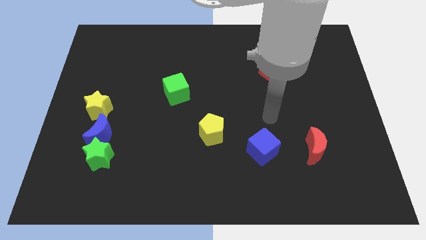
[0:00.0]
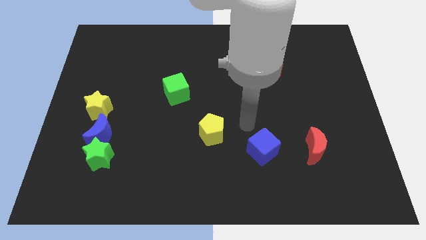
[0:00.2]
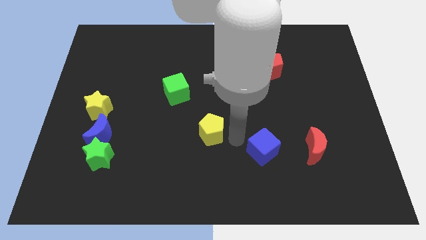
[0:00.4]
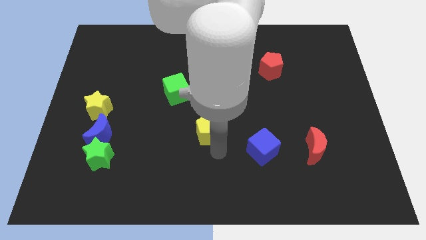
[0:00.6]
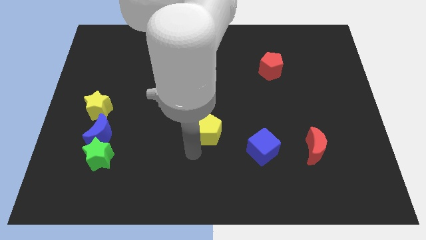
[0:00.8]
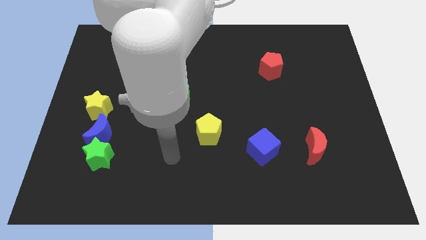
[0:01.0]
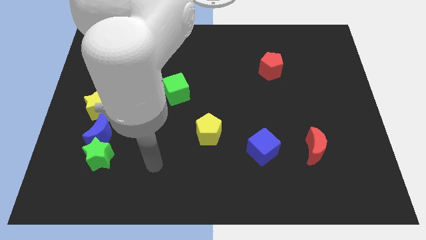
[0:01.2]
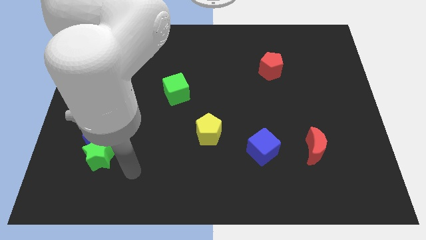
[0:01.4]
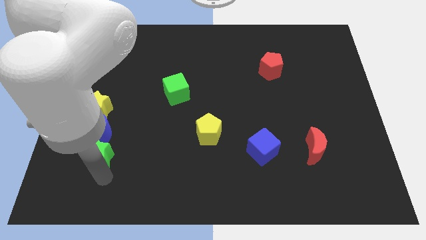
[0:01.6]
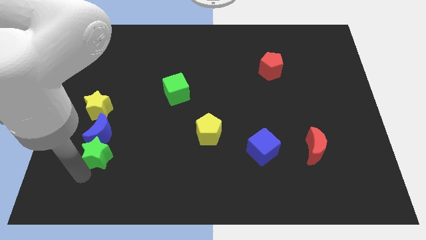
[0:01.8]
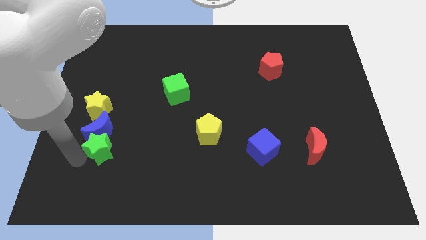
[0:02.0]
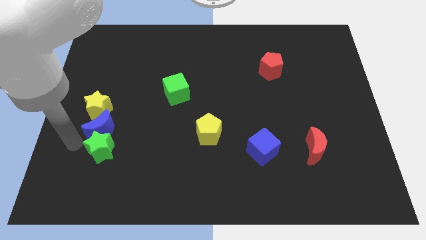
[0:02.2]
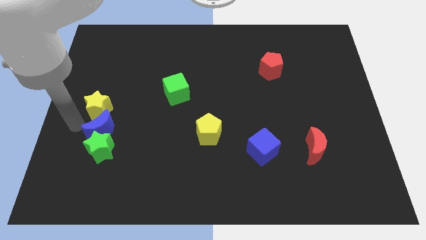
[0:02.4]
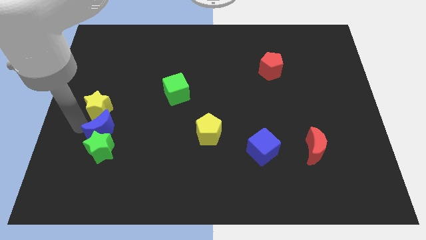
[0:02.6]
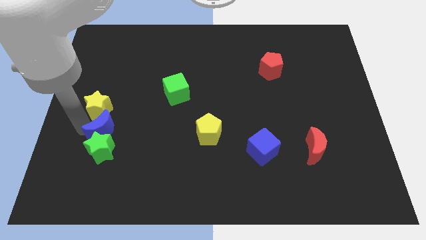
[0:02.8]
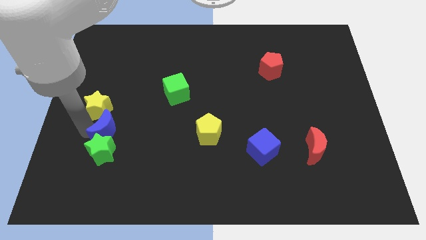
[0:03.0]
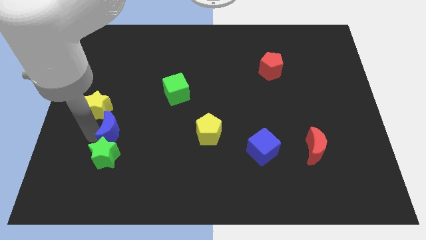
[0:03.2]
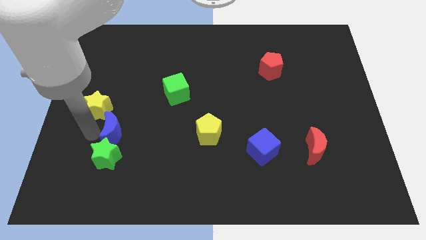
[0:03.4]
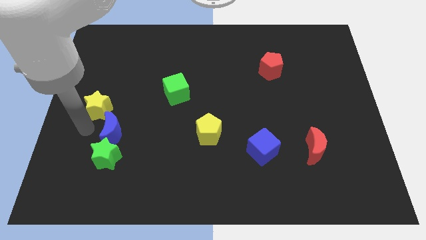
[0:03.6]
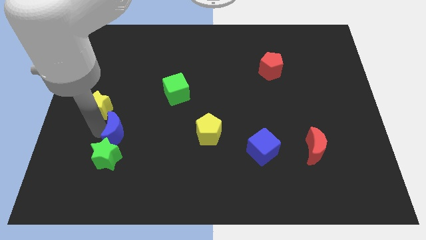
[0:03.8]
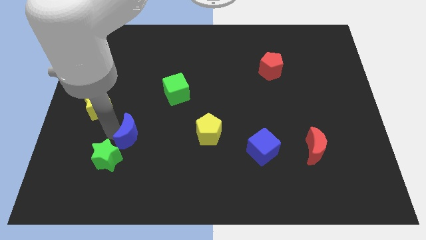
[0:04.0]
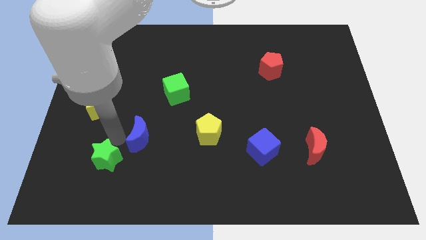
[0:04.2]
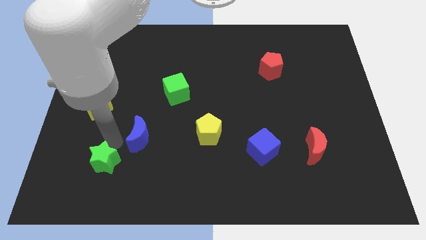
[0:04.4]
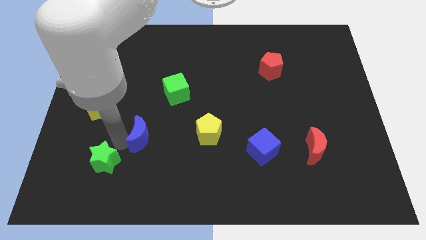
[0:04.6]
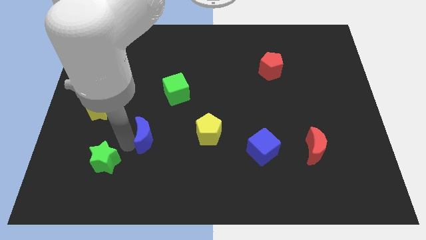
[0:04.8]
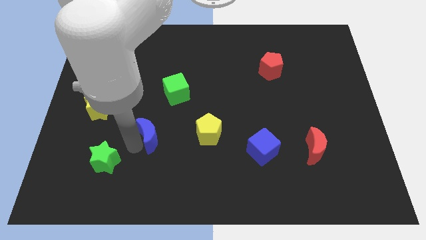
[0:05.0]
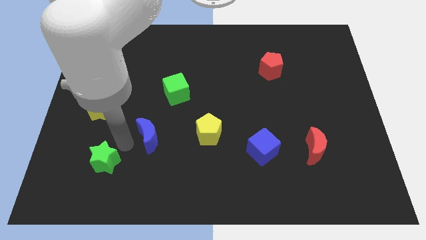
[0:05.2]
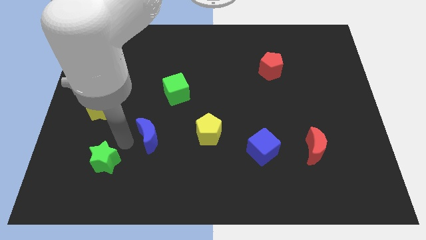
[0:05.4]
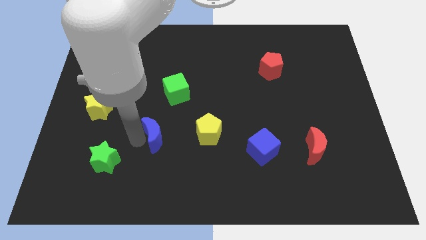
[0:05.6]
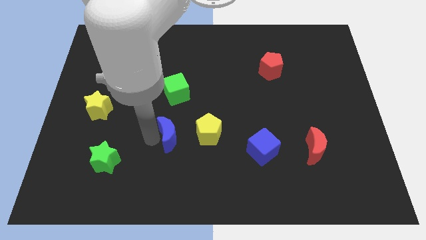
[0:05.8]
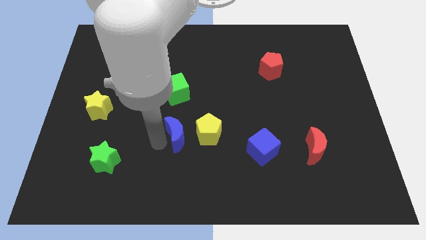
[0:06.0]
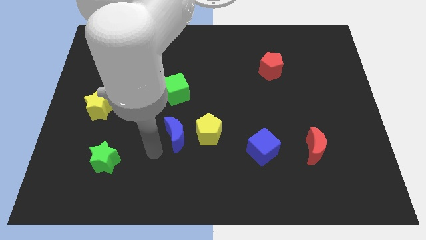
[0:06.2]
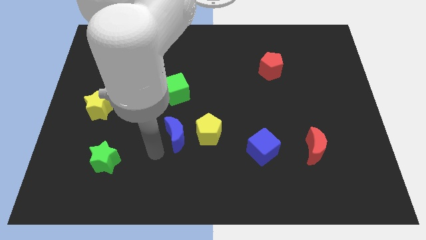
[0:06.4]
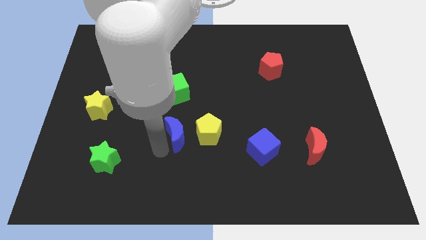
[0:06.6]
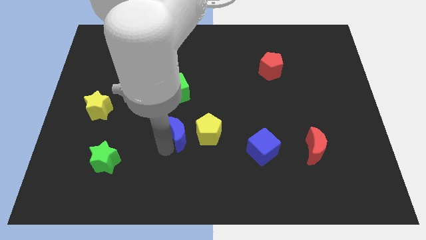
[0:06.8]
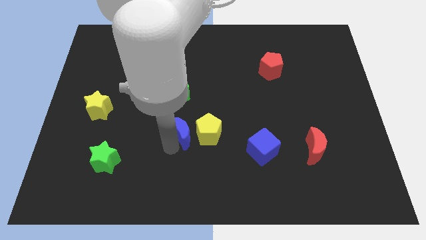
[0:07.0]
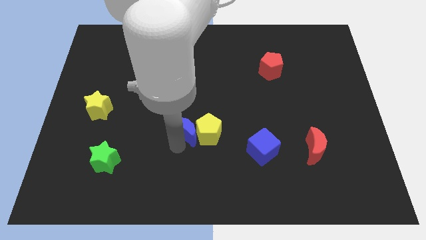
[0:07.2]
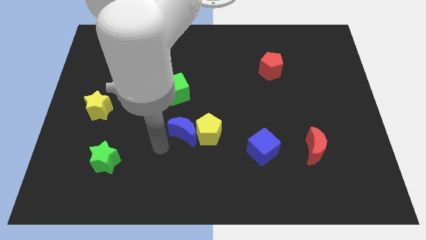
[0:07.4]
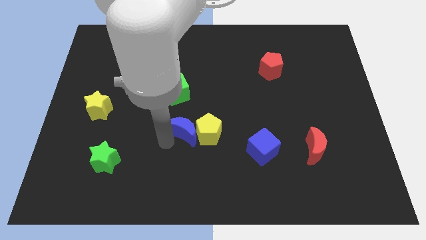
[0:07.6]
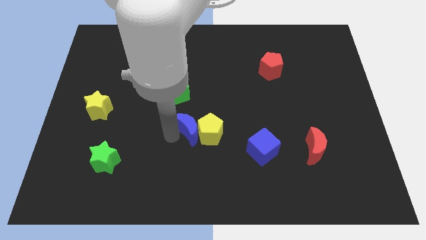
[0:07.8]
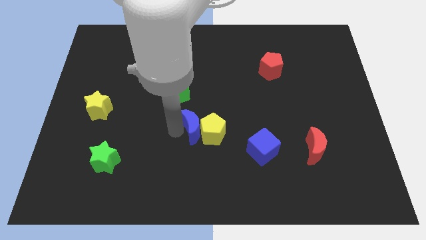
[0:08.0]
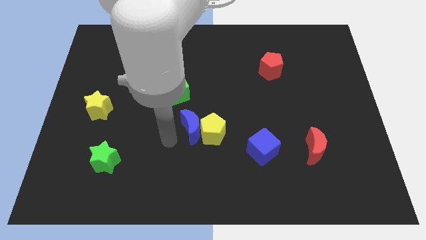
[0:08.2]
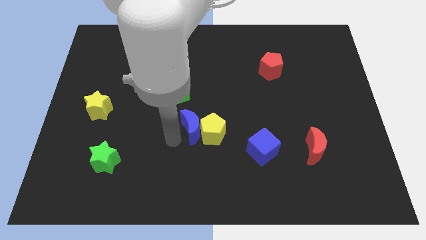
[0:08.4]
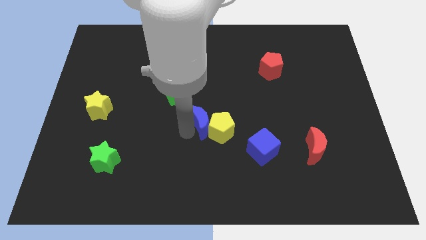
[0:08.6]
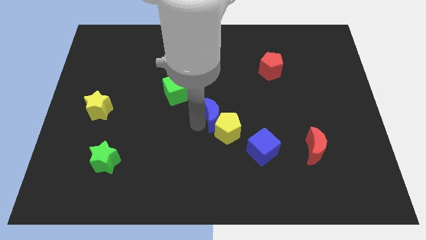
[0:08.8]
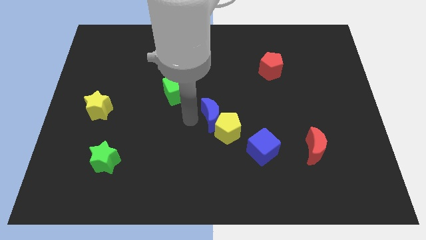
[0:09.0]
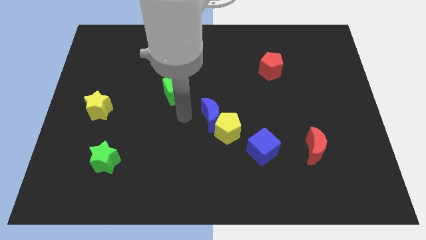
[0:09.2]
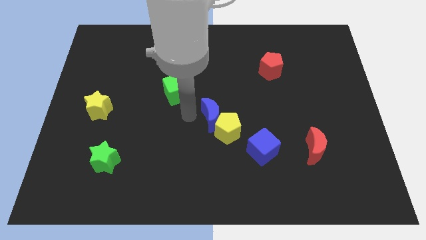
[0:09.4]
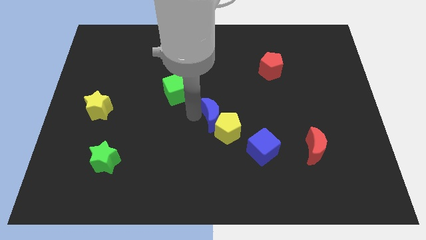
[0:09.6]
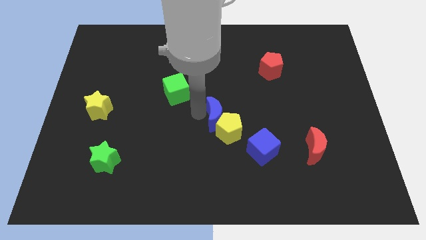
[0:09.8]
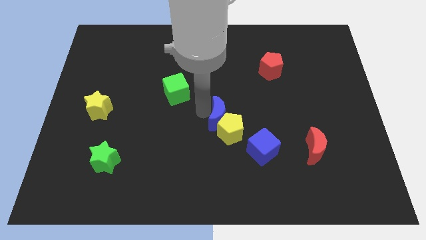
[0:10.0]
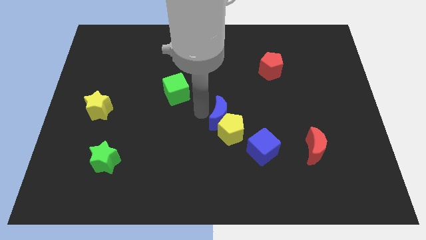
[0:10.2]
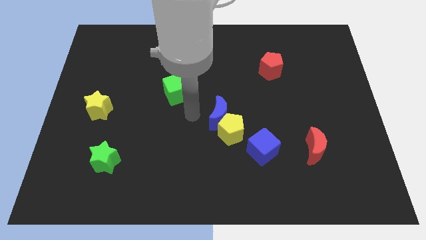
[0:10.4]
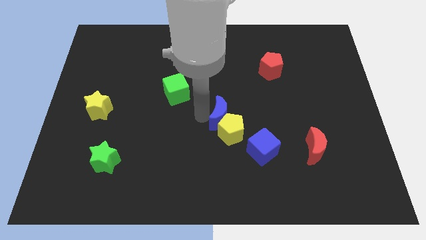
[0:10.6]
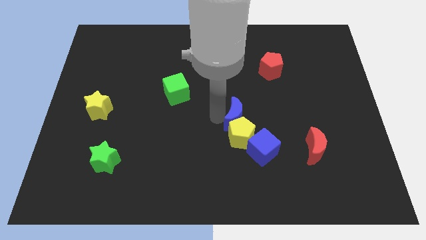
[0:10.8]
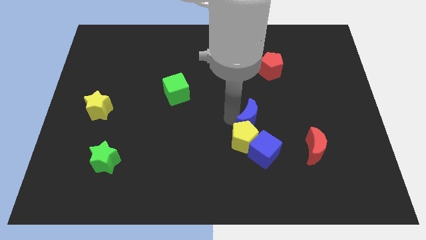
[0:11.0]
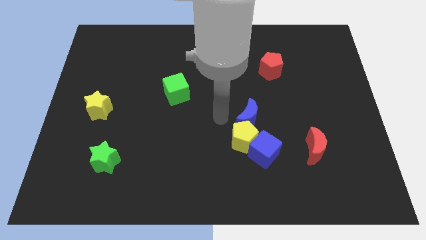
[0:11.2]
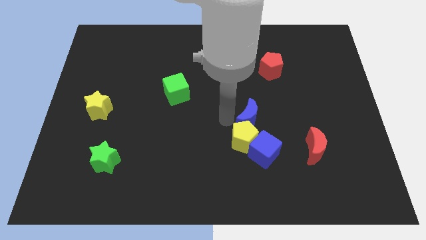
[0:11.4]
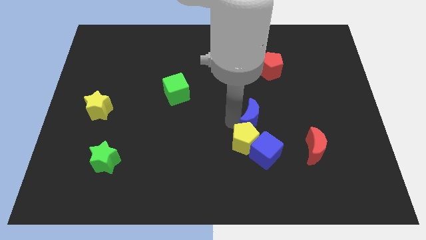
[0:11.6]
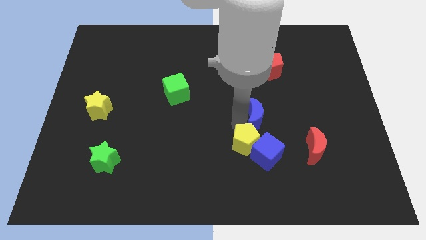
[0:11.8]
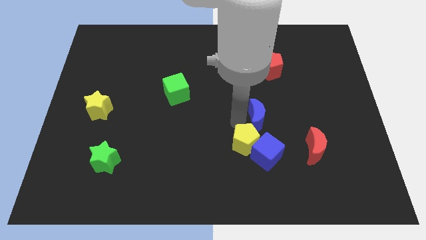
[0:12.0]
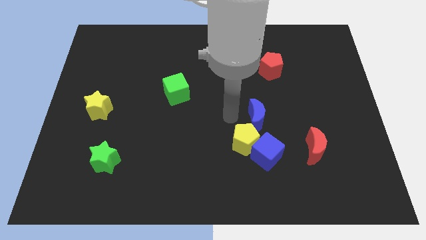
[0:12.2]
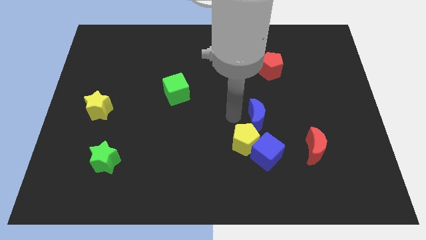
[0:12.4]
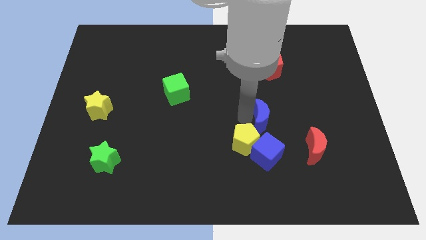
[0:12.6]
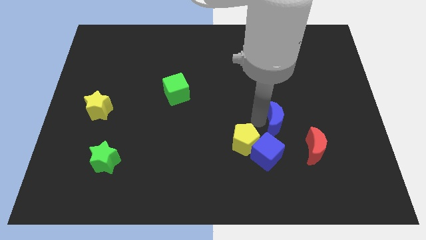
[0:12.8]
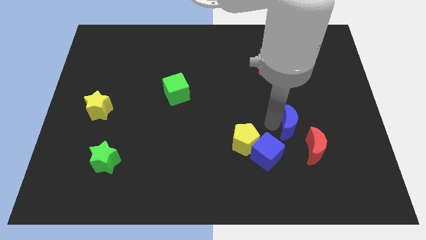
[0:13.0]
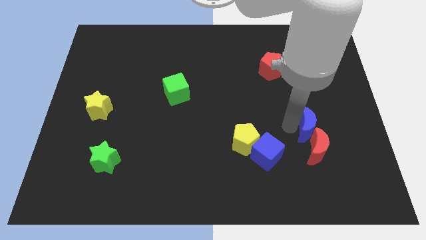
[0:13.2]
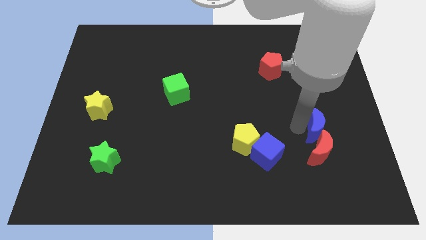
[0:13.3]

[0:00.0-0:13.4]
push the blue moon to the top right side of the red moon
